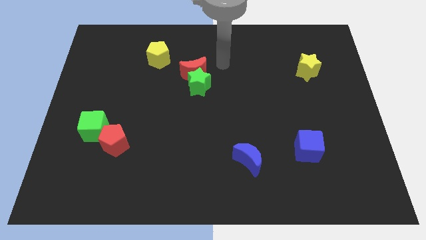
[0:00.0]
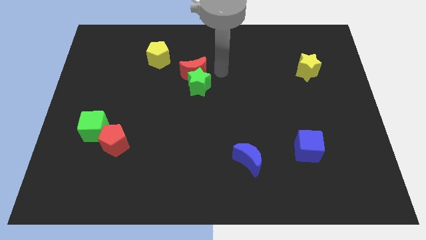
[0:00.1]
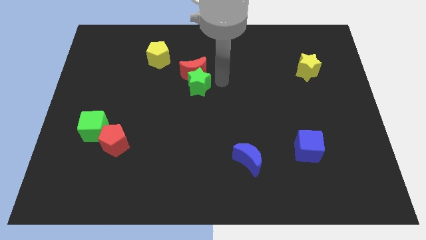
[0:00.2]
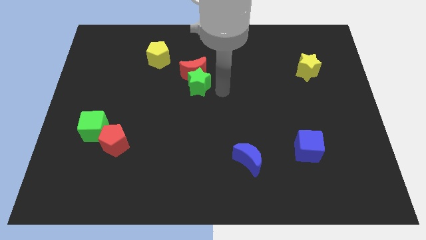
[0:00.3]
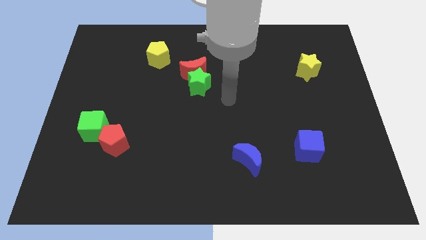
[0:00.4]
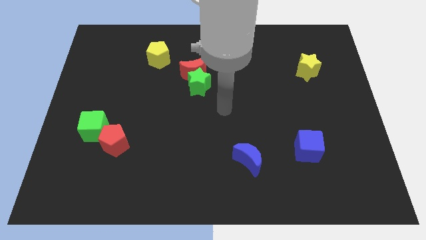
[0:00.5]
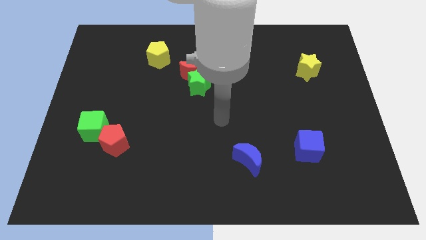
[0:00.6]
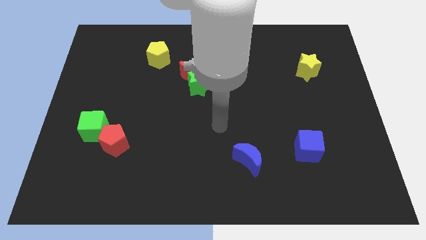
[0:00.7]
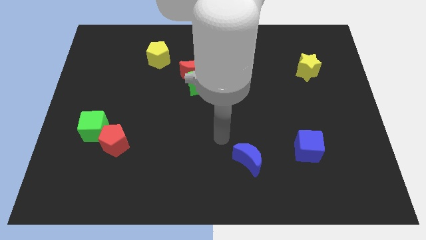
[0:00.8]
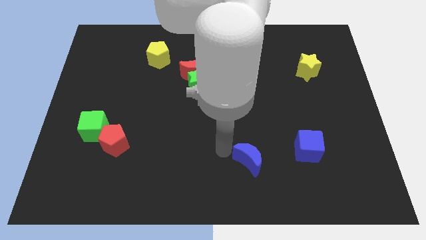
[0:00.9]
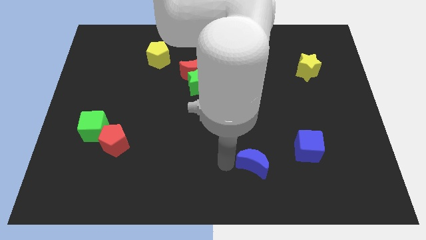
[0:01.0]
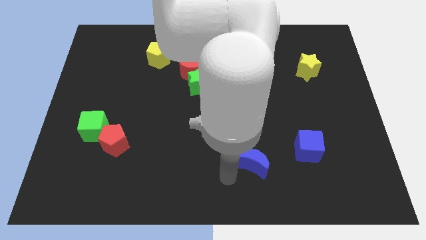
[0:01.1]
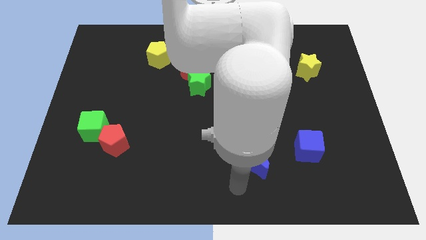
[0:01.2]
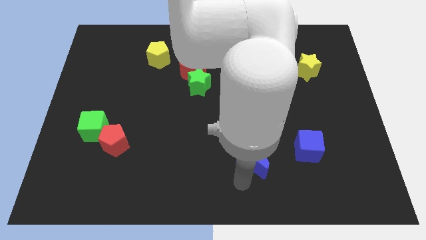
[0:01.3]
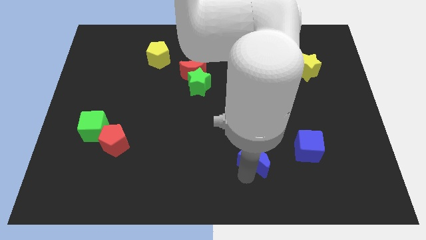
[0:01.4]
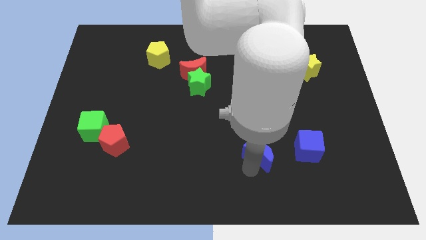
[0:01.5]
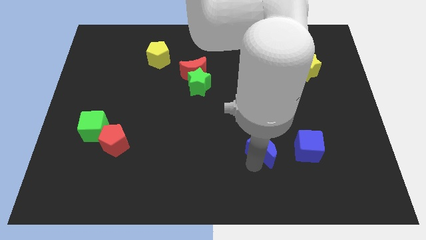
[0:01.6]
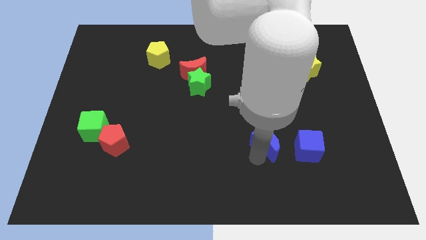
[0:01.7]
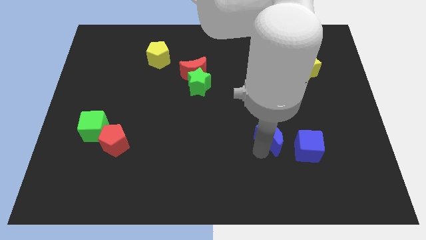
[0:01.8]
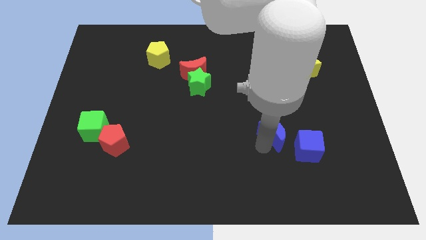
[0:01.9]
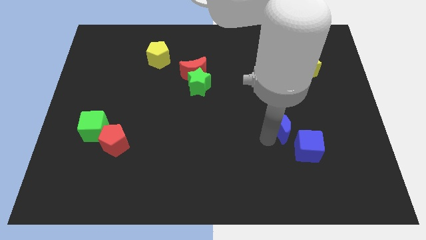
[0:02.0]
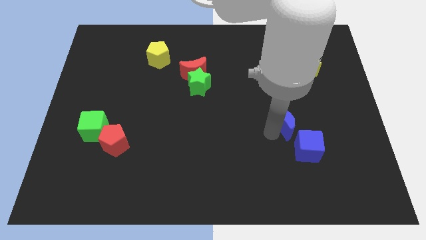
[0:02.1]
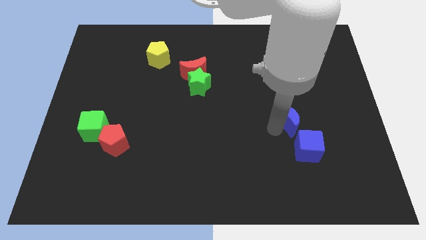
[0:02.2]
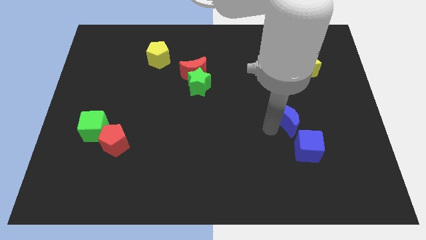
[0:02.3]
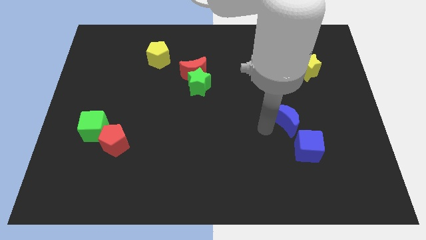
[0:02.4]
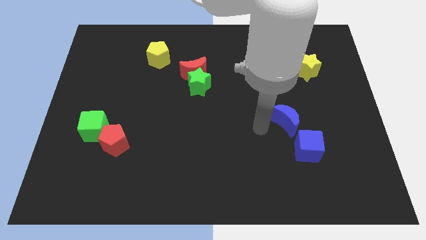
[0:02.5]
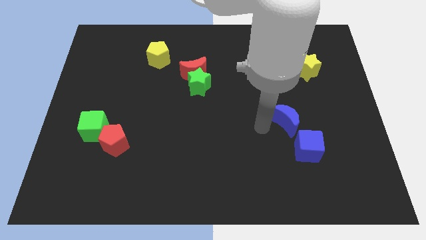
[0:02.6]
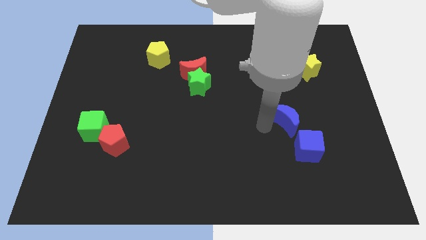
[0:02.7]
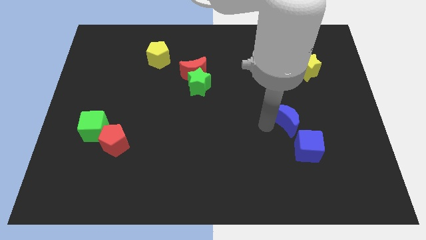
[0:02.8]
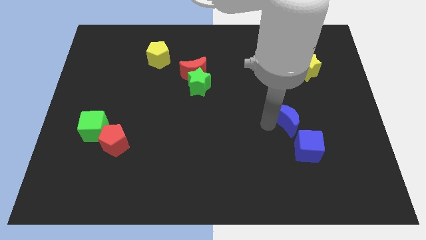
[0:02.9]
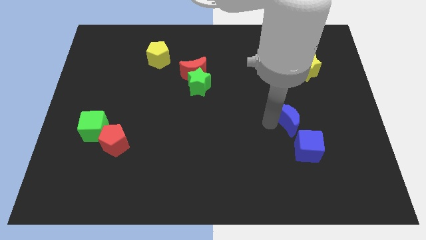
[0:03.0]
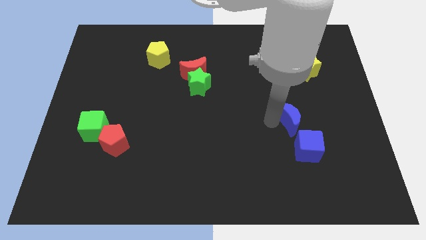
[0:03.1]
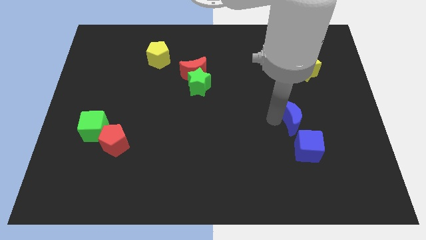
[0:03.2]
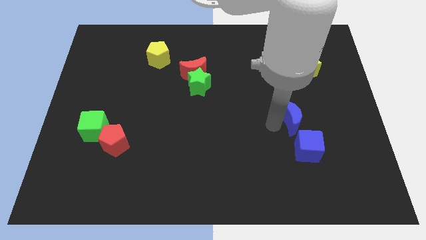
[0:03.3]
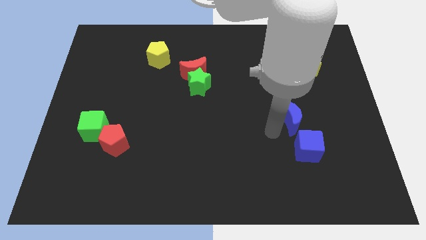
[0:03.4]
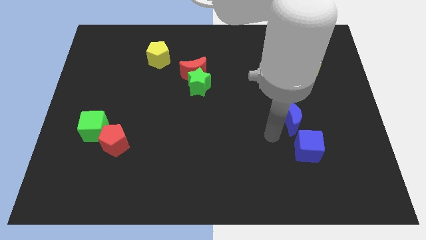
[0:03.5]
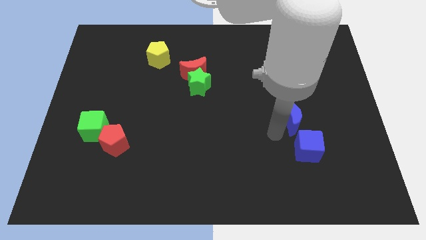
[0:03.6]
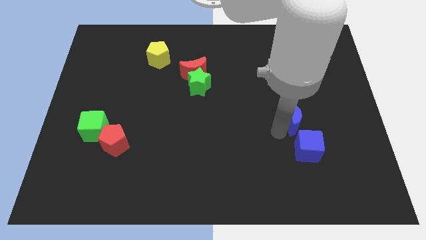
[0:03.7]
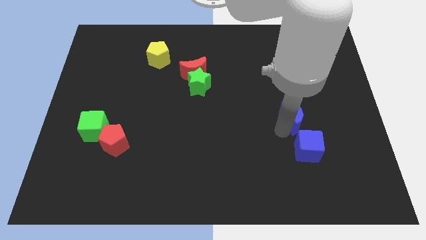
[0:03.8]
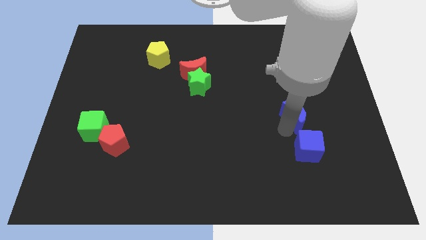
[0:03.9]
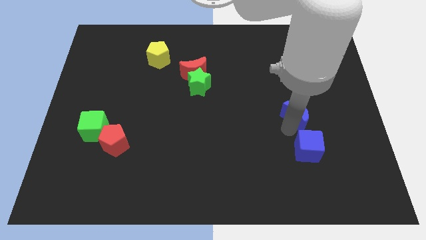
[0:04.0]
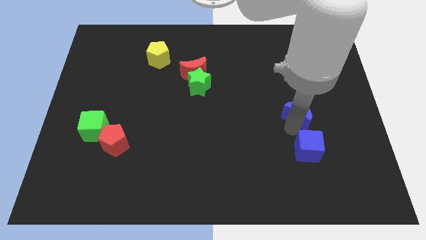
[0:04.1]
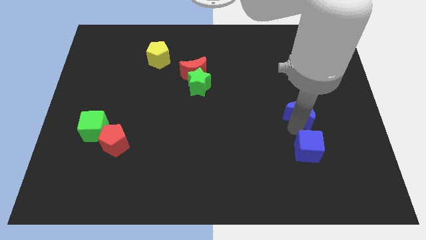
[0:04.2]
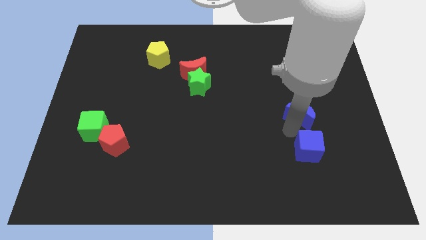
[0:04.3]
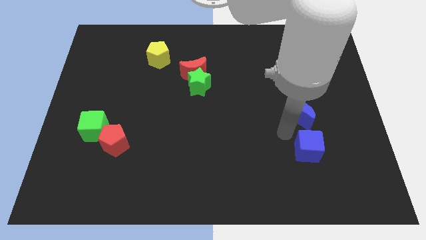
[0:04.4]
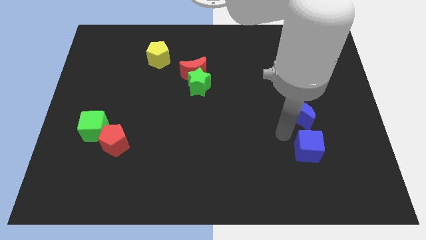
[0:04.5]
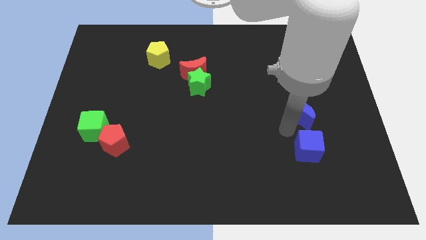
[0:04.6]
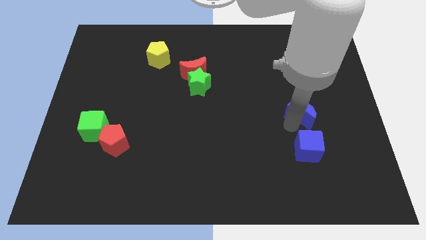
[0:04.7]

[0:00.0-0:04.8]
push the blue moon to the bottom of the yellow star

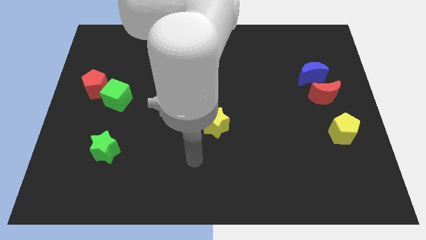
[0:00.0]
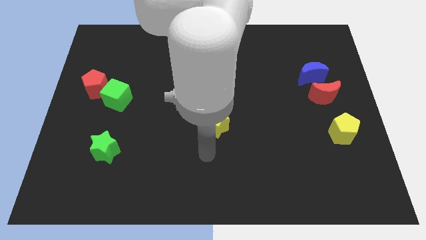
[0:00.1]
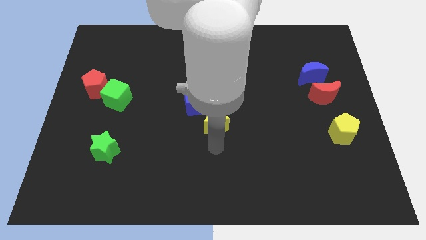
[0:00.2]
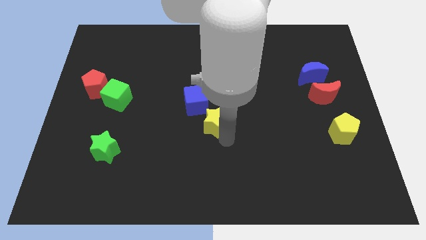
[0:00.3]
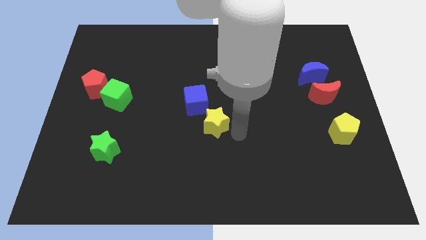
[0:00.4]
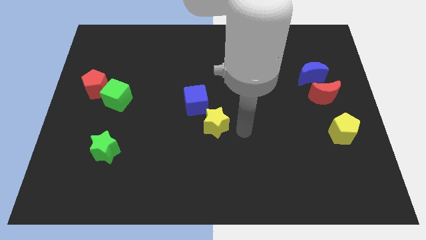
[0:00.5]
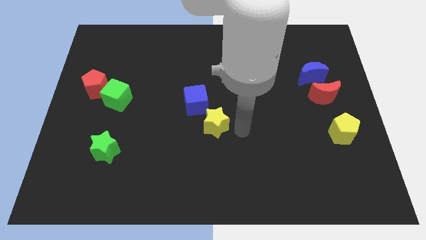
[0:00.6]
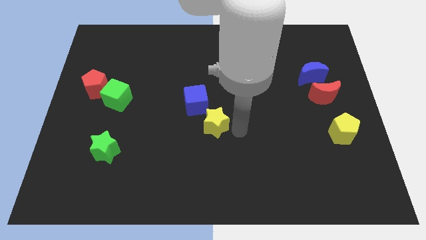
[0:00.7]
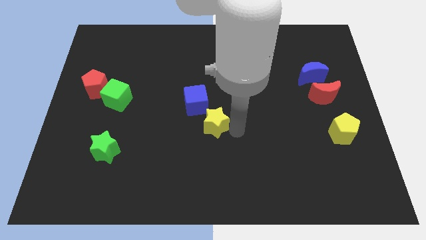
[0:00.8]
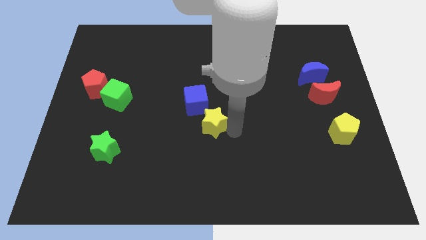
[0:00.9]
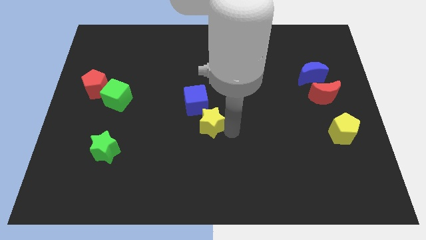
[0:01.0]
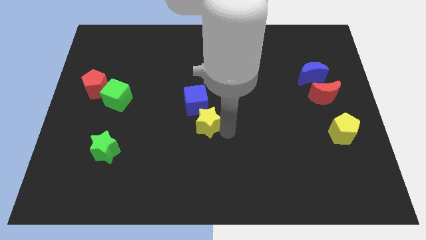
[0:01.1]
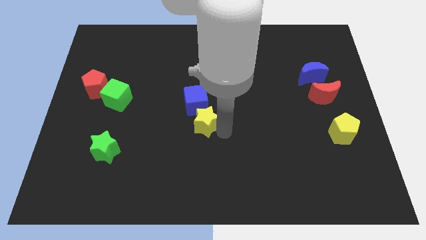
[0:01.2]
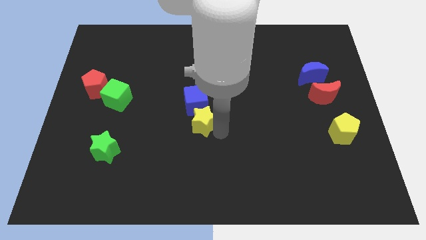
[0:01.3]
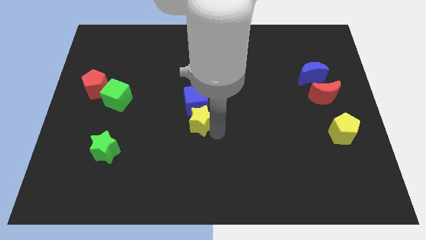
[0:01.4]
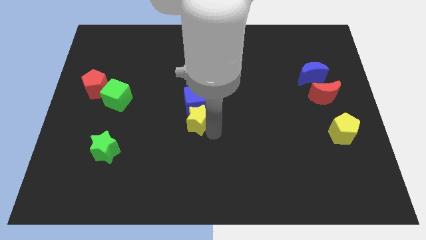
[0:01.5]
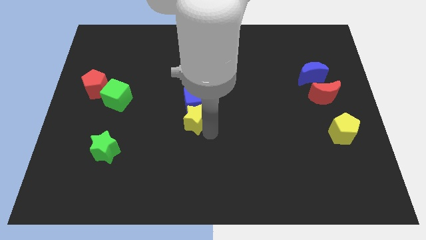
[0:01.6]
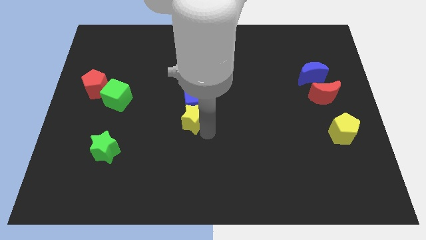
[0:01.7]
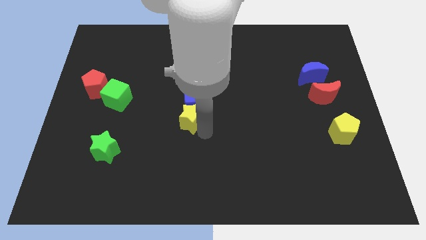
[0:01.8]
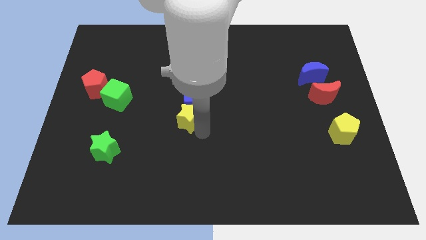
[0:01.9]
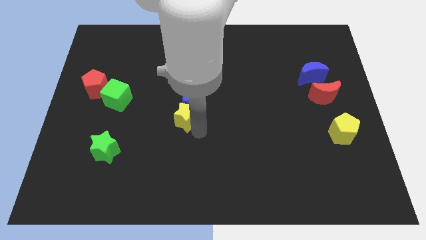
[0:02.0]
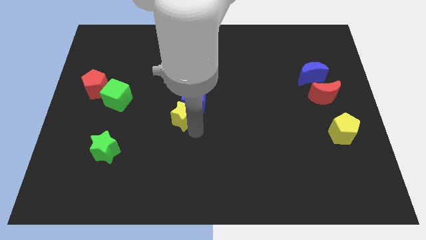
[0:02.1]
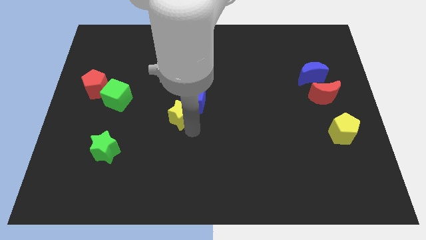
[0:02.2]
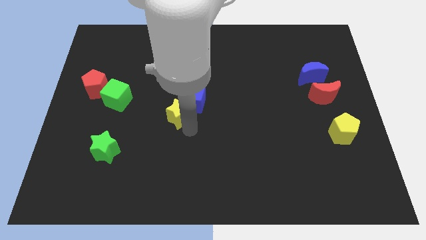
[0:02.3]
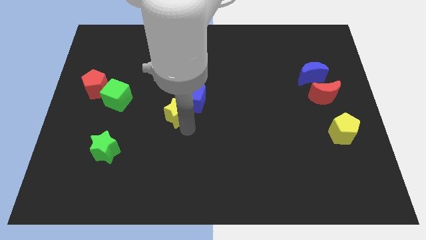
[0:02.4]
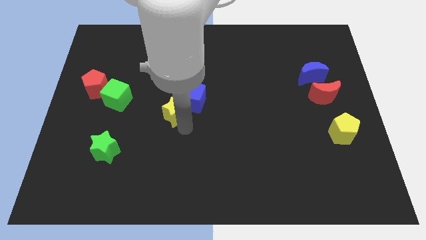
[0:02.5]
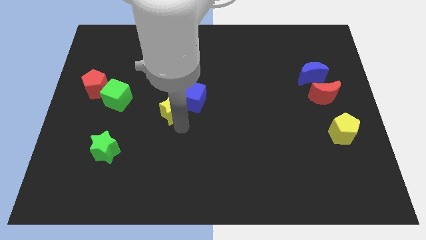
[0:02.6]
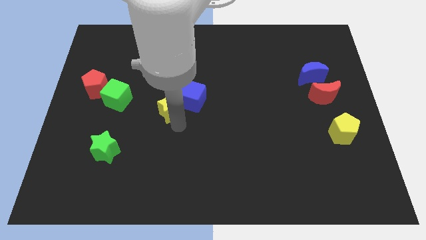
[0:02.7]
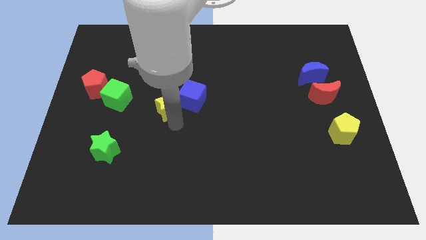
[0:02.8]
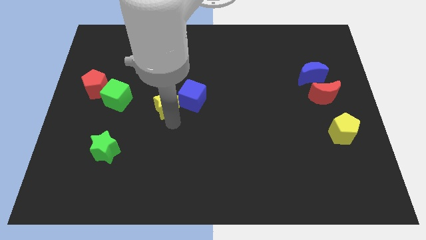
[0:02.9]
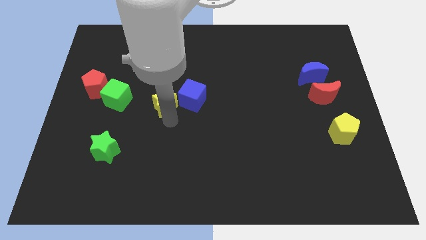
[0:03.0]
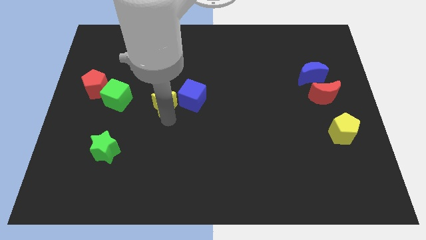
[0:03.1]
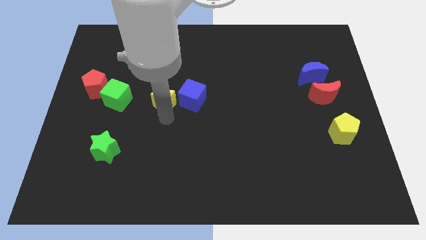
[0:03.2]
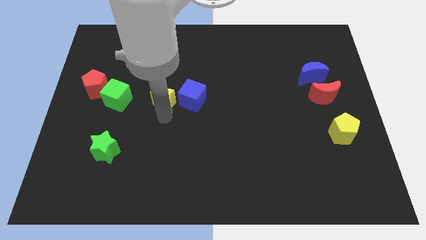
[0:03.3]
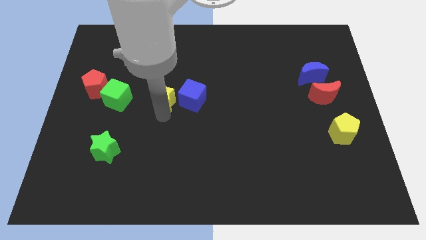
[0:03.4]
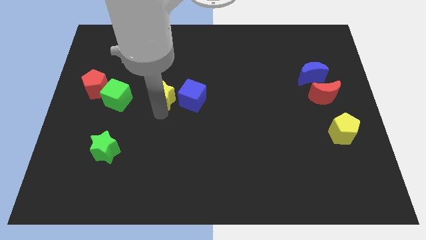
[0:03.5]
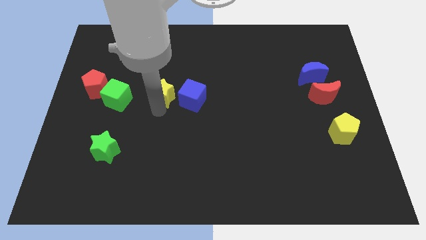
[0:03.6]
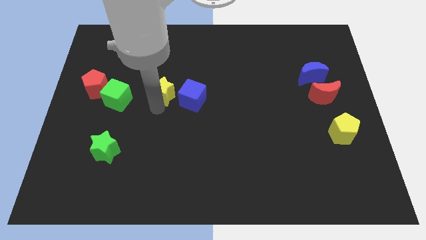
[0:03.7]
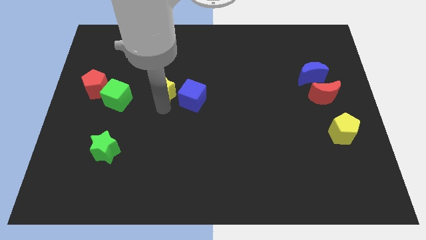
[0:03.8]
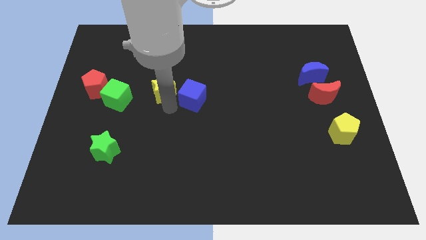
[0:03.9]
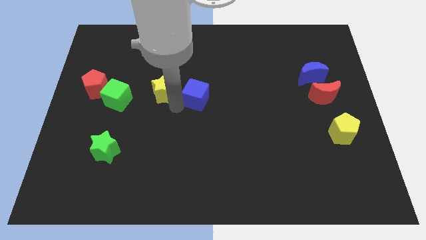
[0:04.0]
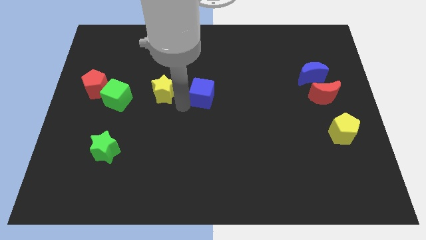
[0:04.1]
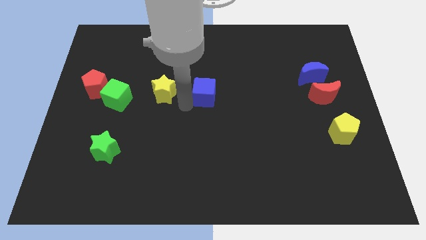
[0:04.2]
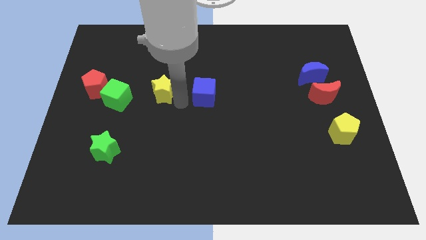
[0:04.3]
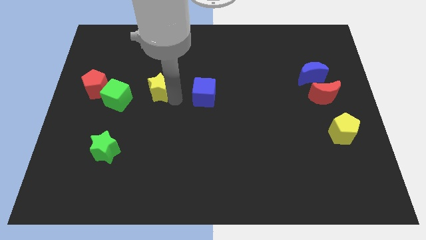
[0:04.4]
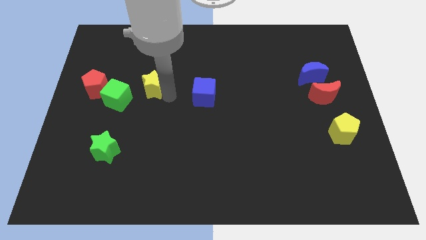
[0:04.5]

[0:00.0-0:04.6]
put the yellow star diagonally up and to the right of the green cube
